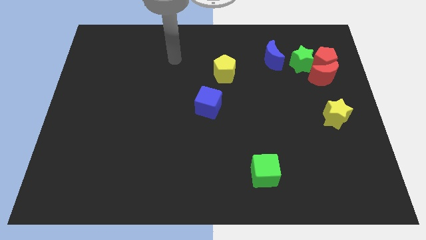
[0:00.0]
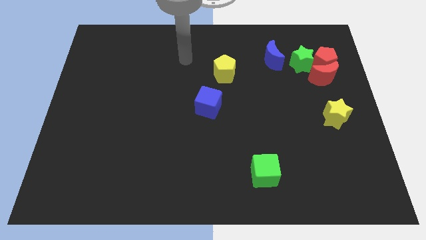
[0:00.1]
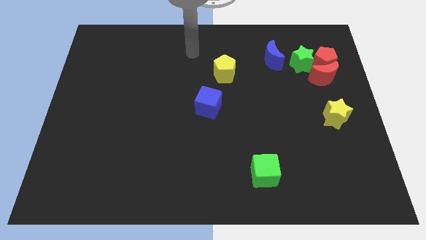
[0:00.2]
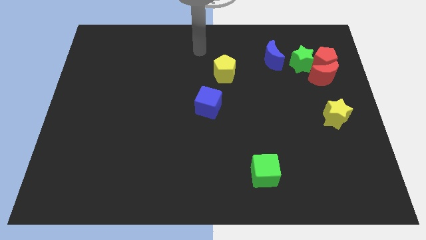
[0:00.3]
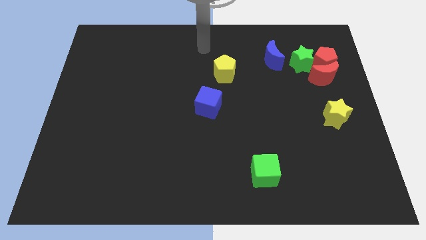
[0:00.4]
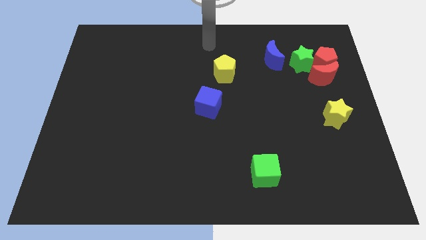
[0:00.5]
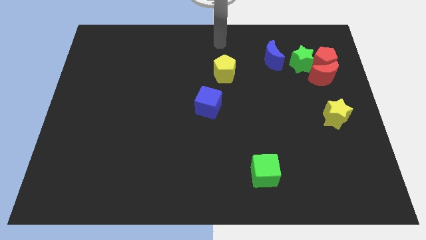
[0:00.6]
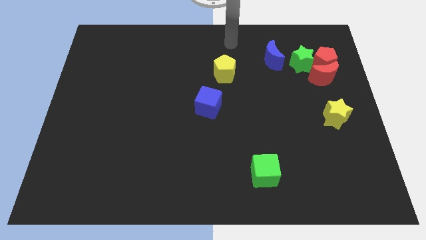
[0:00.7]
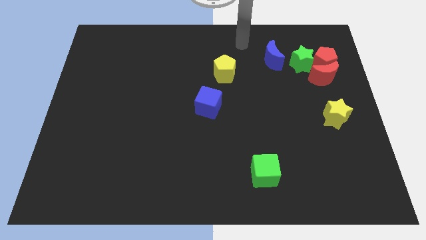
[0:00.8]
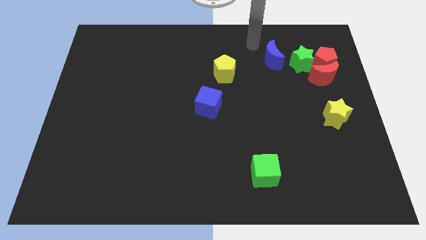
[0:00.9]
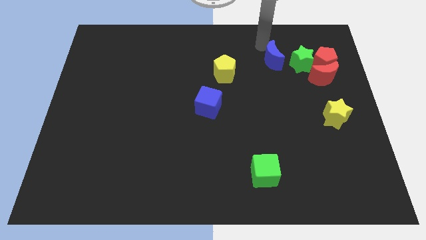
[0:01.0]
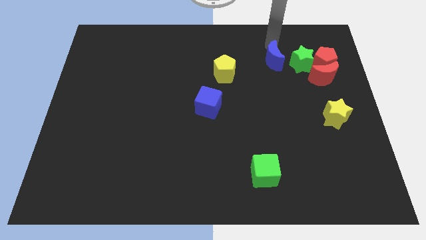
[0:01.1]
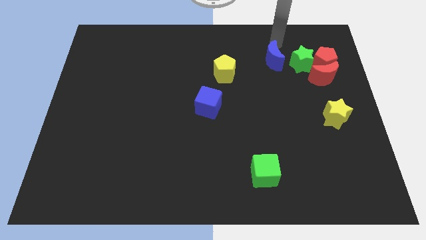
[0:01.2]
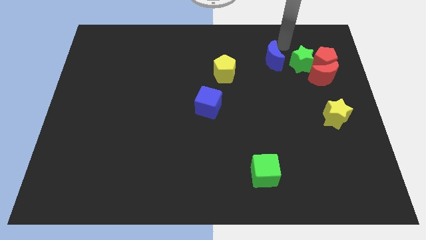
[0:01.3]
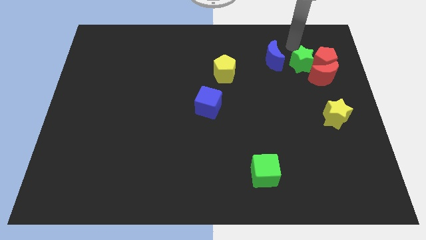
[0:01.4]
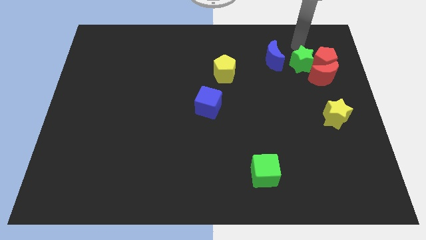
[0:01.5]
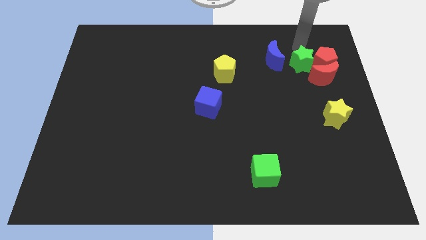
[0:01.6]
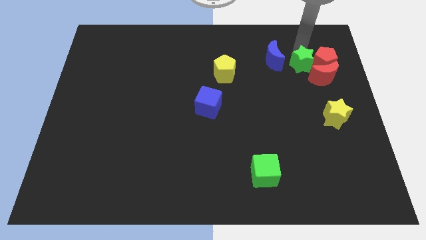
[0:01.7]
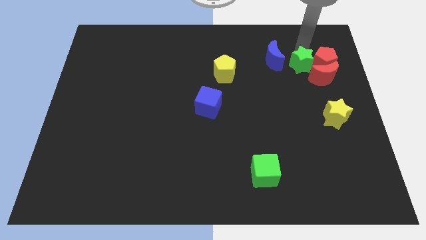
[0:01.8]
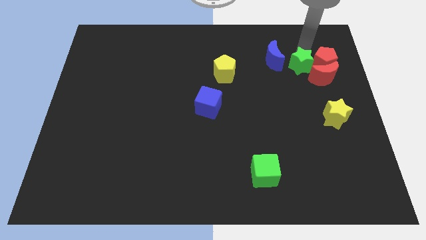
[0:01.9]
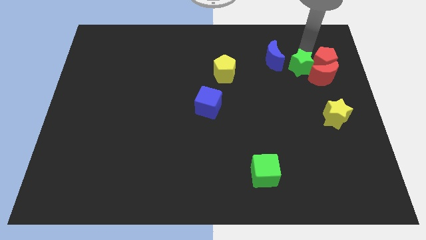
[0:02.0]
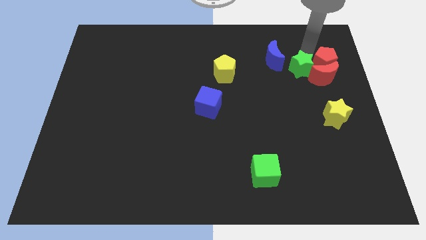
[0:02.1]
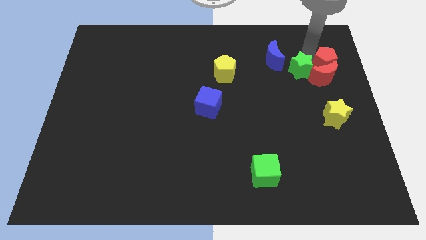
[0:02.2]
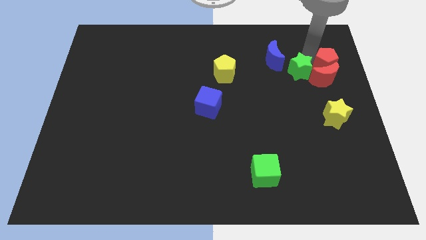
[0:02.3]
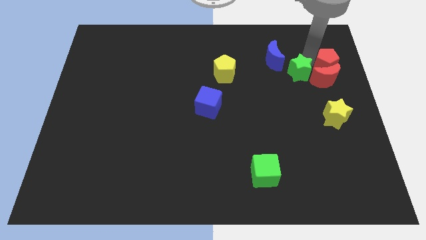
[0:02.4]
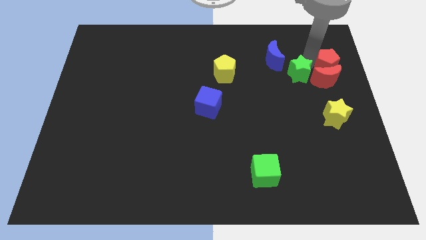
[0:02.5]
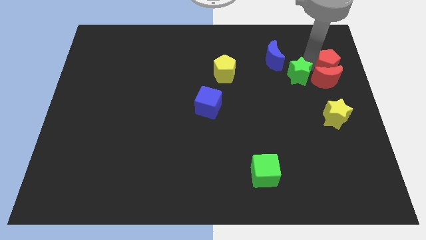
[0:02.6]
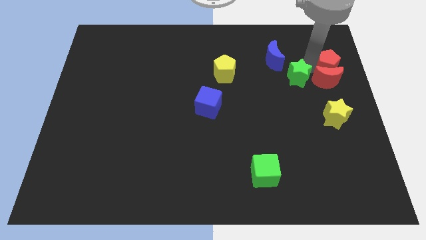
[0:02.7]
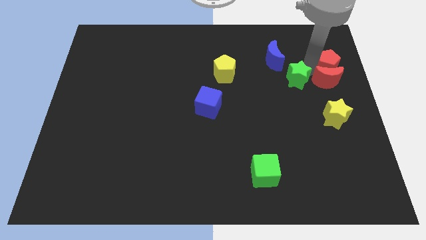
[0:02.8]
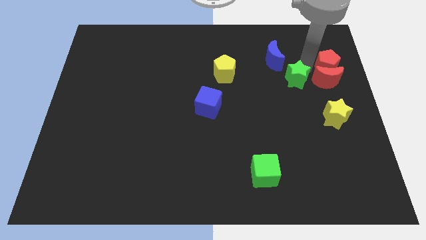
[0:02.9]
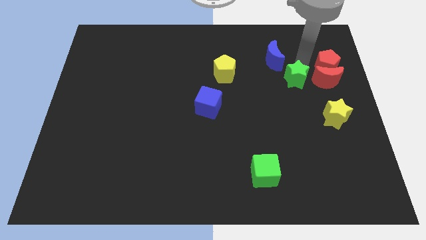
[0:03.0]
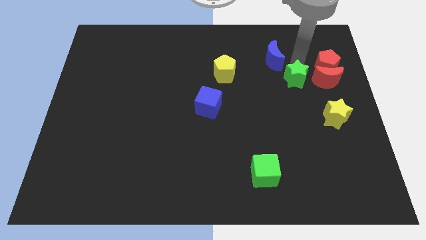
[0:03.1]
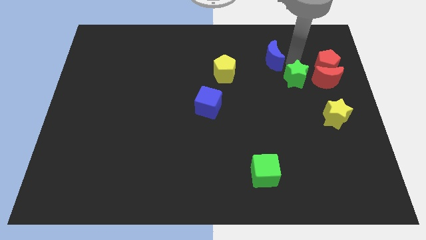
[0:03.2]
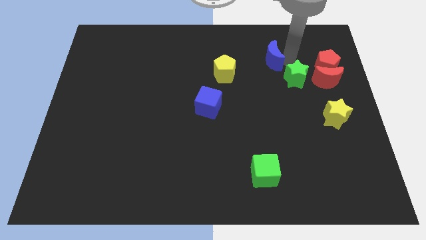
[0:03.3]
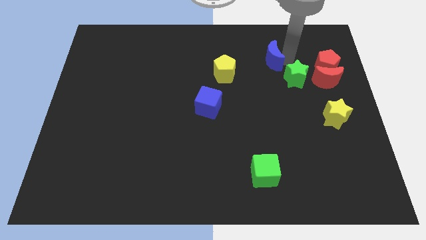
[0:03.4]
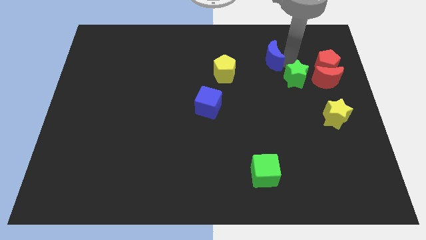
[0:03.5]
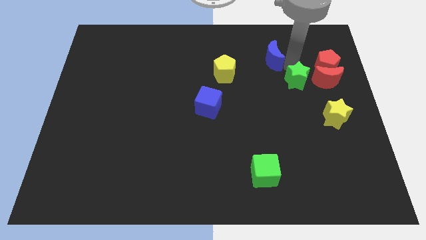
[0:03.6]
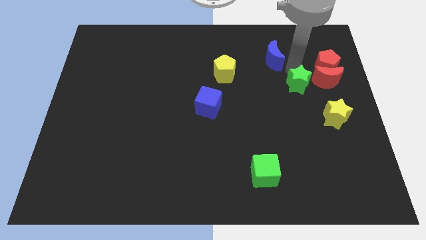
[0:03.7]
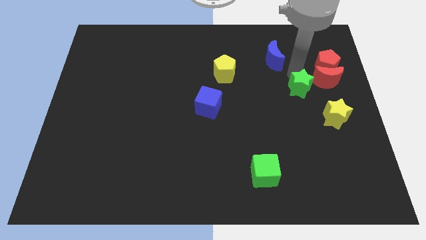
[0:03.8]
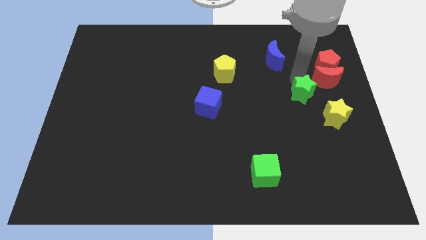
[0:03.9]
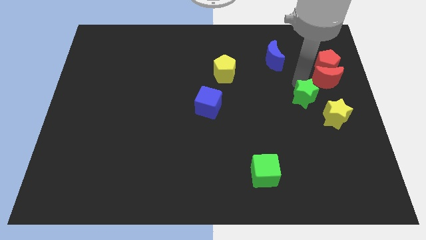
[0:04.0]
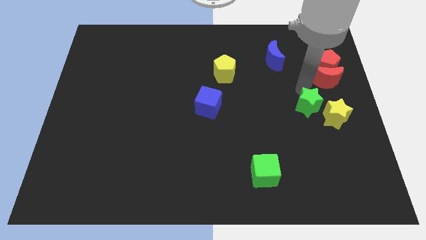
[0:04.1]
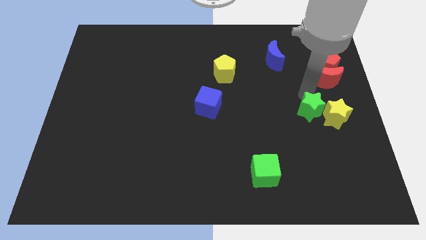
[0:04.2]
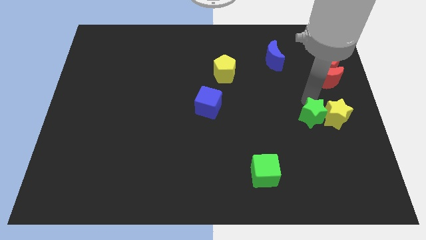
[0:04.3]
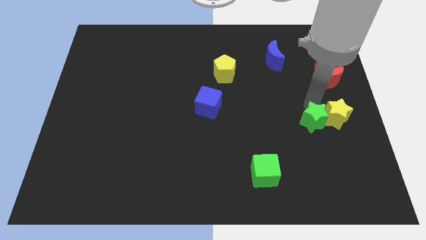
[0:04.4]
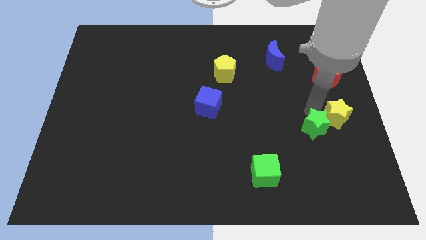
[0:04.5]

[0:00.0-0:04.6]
slide the green star downwards

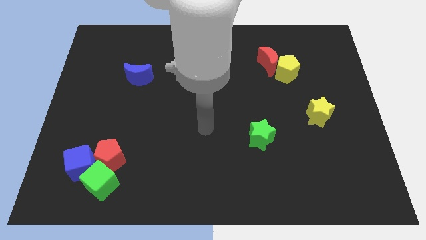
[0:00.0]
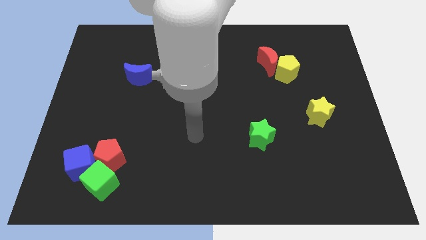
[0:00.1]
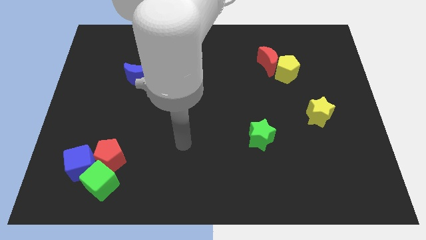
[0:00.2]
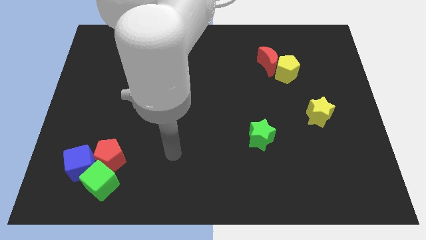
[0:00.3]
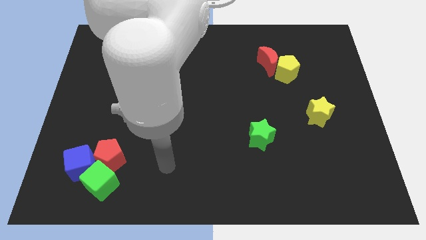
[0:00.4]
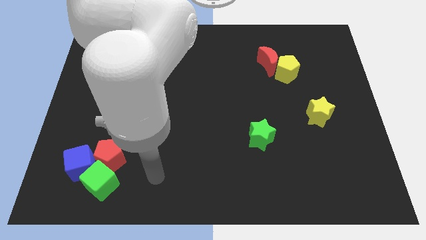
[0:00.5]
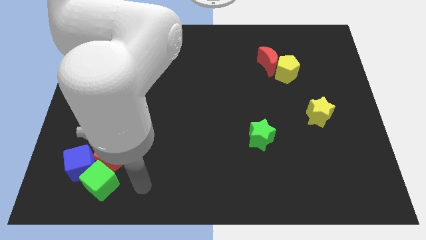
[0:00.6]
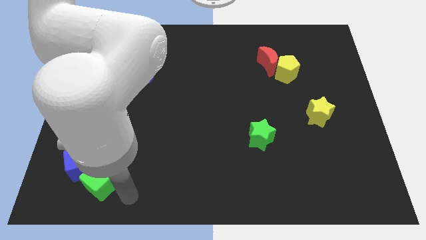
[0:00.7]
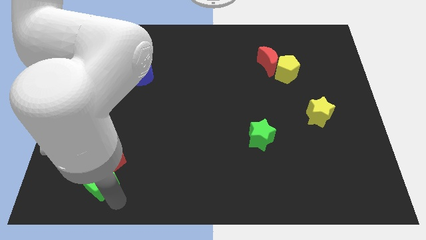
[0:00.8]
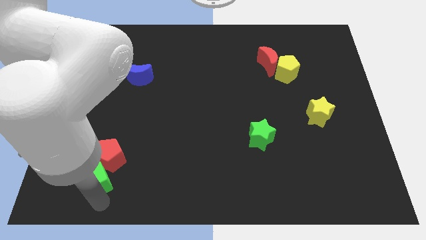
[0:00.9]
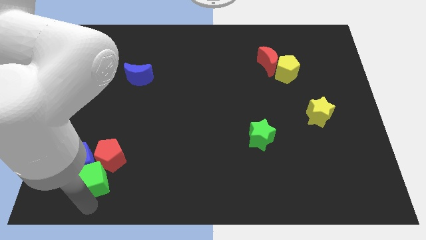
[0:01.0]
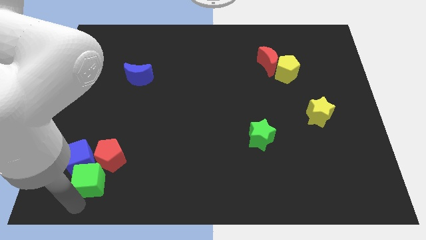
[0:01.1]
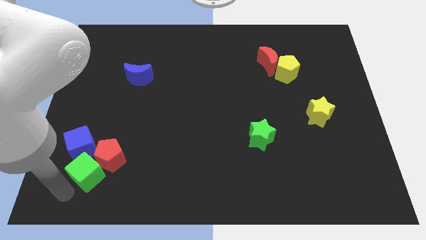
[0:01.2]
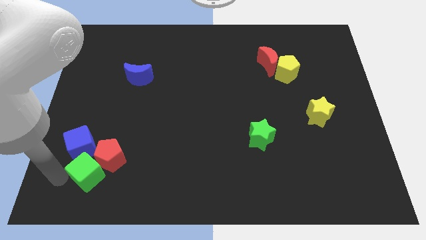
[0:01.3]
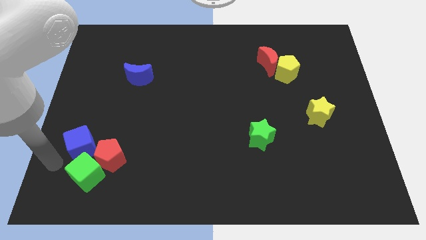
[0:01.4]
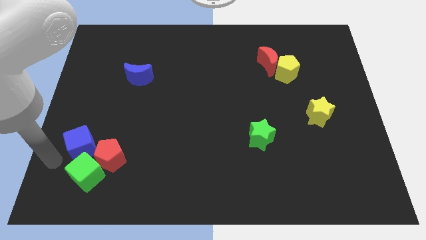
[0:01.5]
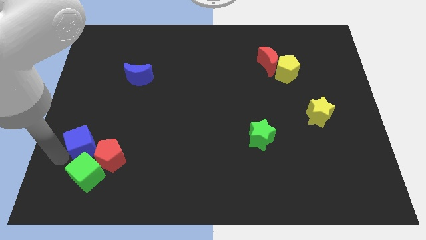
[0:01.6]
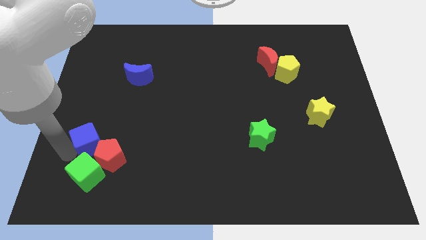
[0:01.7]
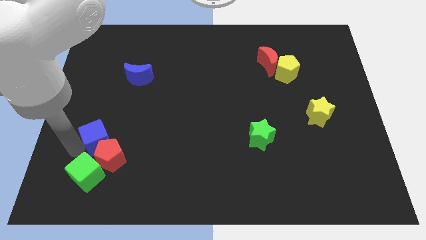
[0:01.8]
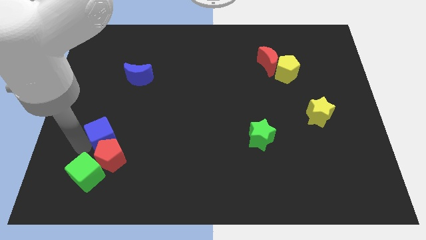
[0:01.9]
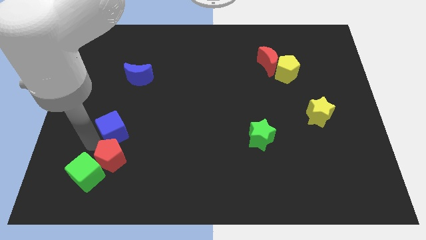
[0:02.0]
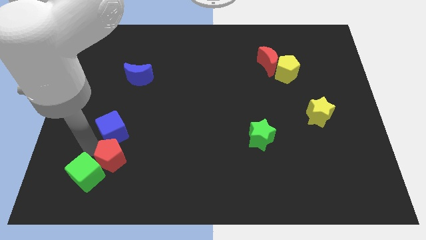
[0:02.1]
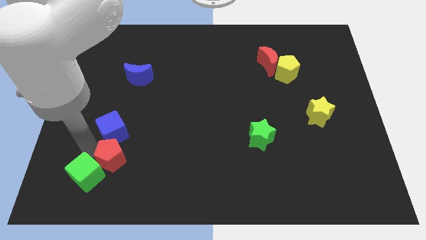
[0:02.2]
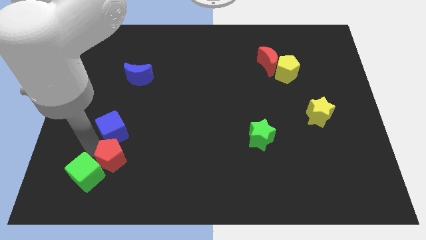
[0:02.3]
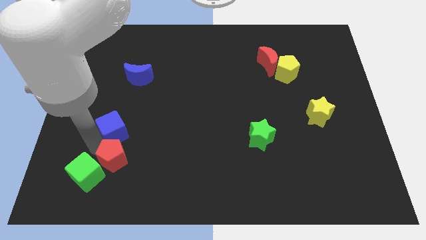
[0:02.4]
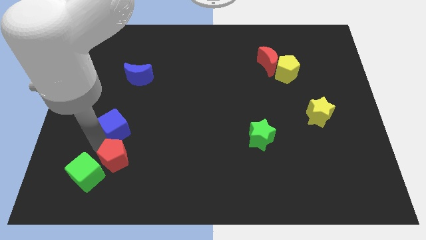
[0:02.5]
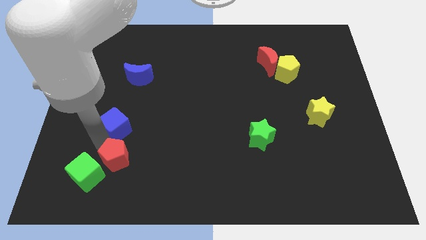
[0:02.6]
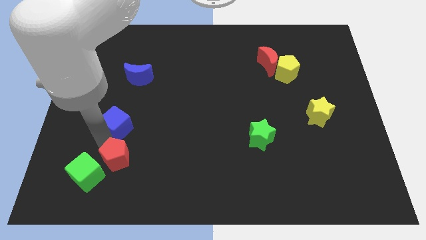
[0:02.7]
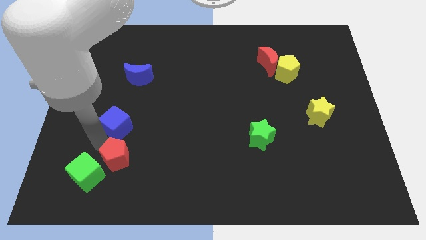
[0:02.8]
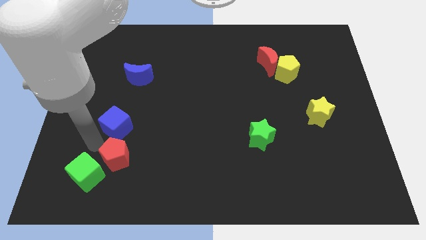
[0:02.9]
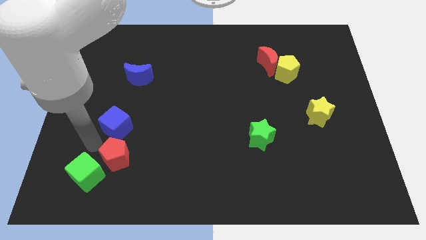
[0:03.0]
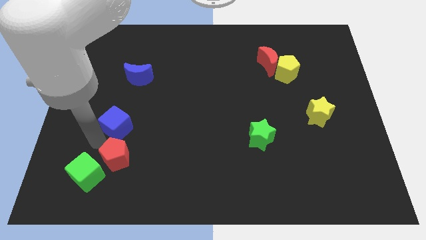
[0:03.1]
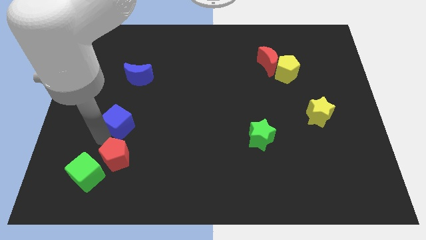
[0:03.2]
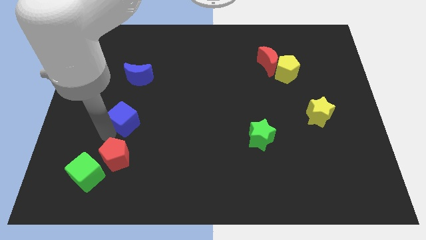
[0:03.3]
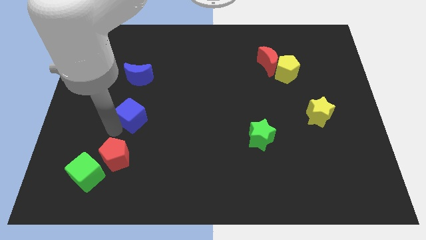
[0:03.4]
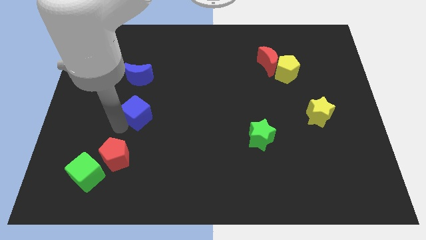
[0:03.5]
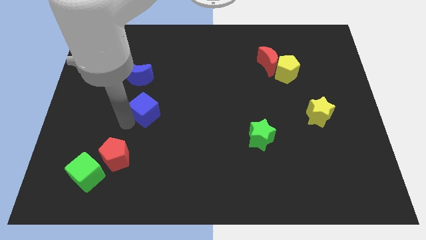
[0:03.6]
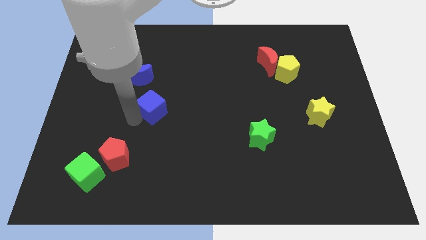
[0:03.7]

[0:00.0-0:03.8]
slide the blue cube up and right

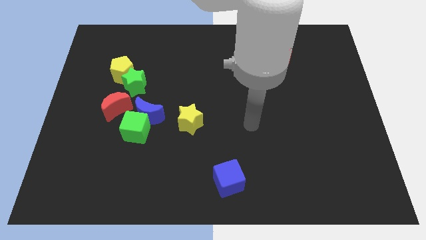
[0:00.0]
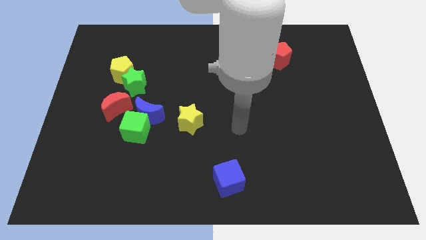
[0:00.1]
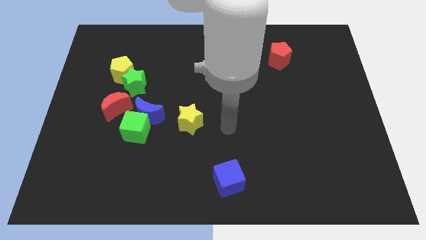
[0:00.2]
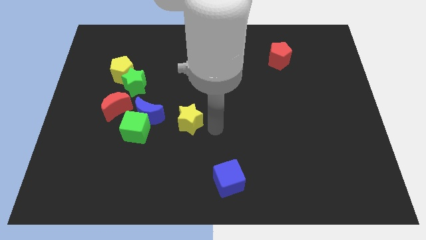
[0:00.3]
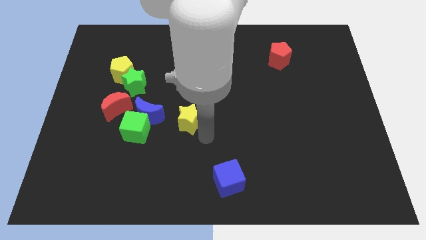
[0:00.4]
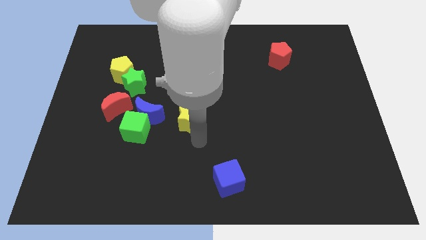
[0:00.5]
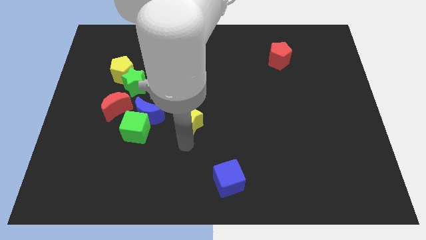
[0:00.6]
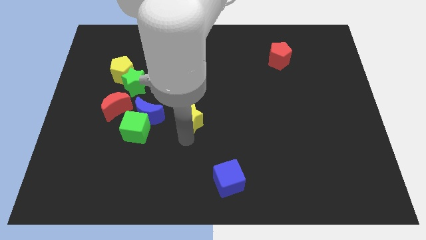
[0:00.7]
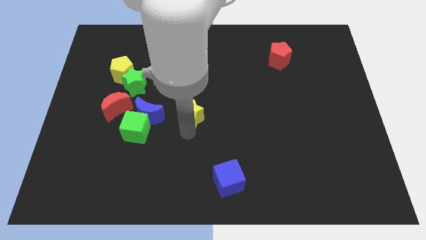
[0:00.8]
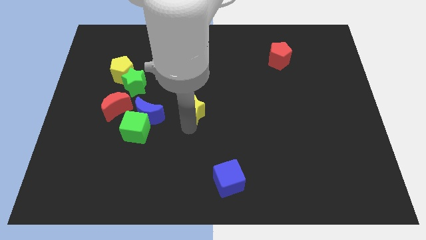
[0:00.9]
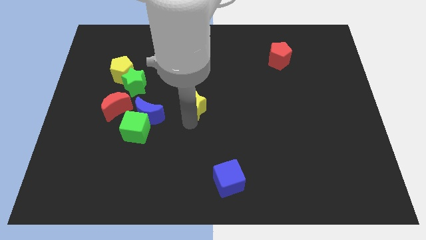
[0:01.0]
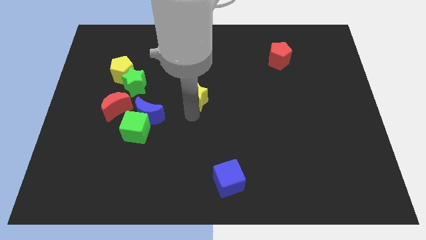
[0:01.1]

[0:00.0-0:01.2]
slightly move the yellow star up
